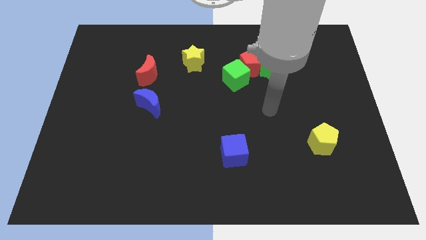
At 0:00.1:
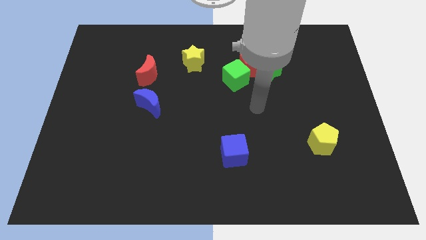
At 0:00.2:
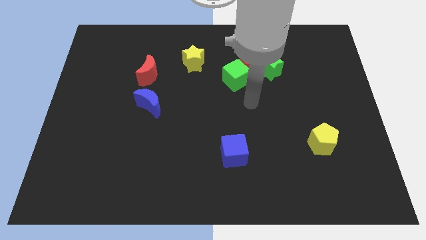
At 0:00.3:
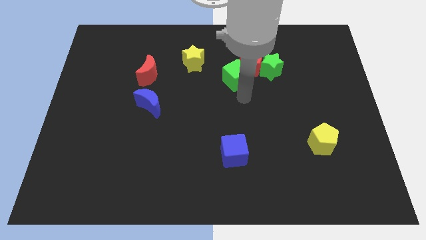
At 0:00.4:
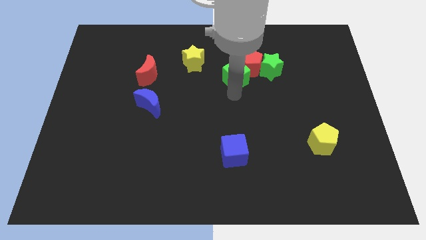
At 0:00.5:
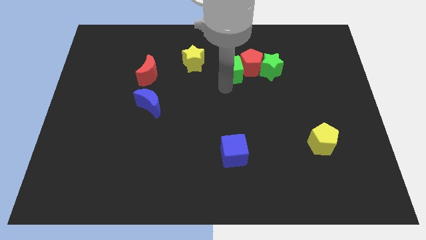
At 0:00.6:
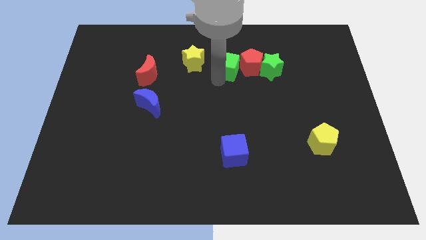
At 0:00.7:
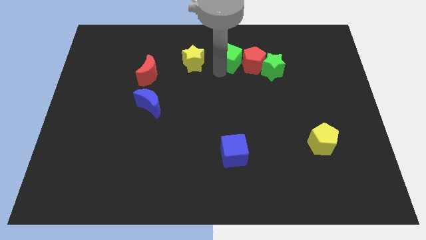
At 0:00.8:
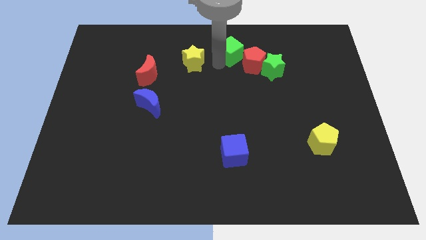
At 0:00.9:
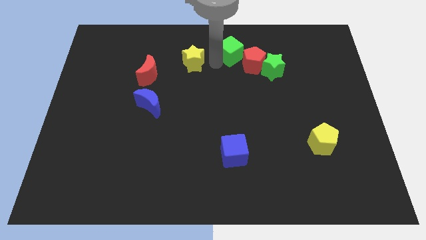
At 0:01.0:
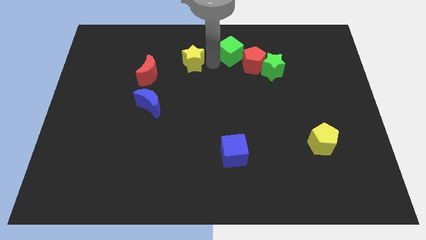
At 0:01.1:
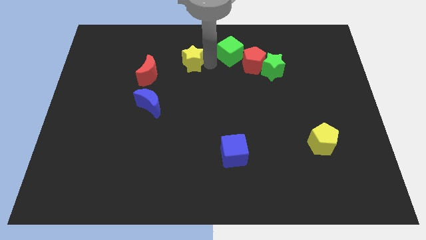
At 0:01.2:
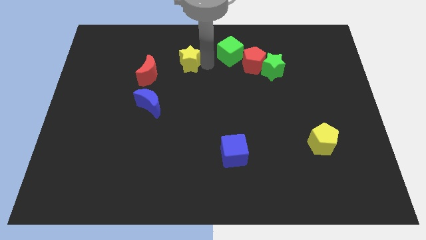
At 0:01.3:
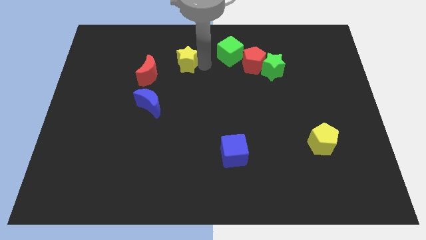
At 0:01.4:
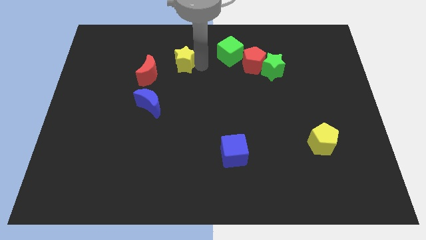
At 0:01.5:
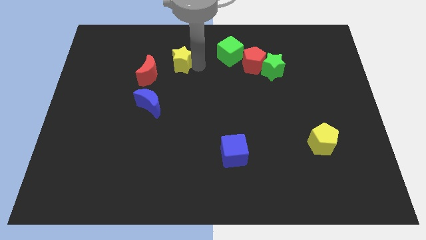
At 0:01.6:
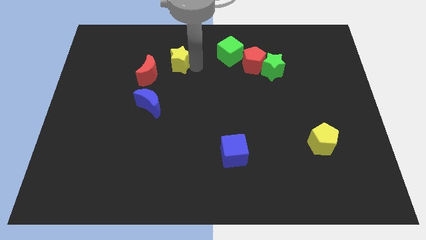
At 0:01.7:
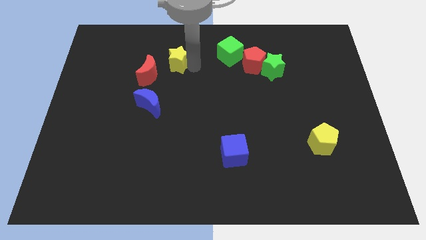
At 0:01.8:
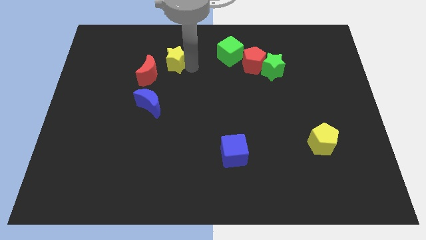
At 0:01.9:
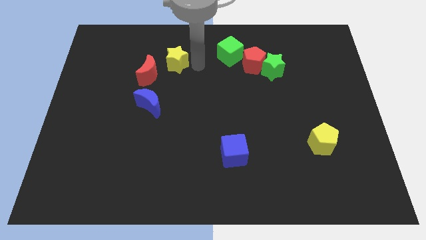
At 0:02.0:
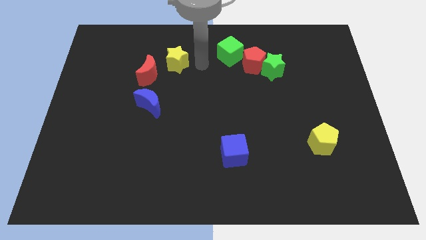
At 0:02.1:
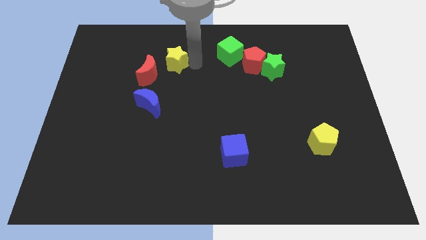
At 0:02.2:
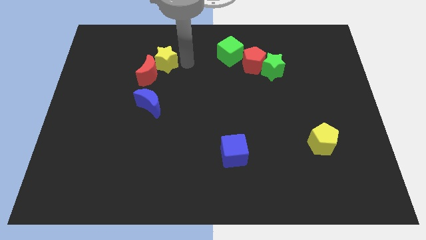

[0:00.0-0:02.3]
push the yellow star slightly left

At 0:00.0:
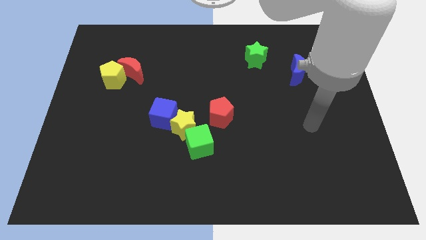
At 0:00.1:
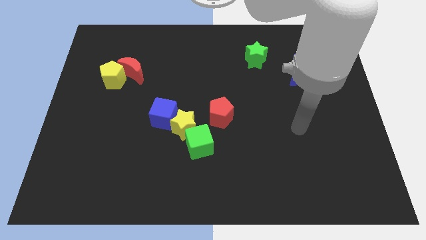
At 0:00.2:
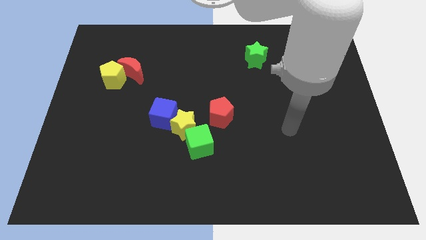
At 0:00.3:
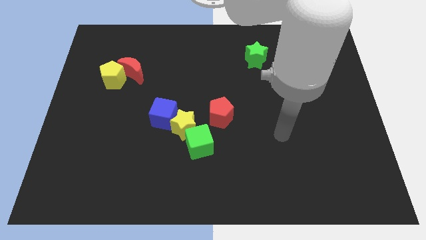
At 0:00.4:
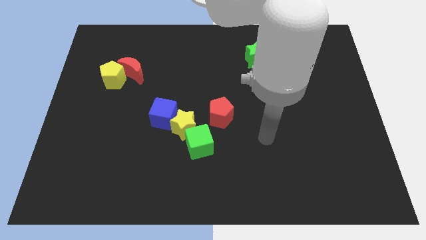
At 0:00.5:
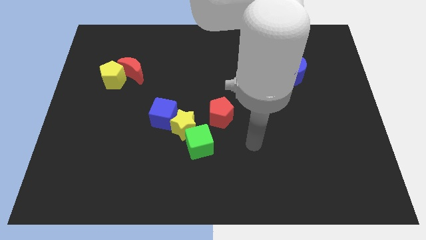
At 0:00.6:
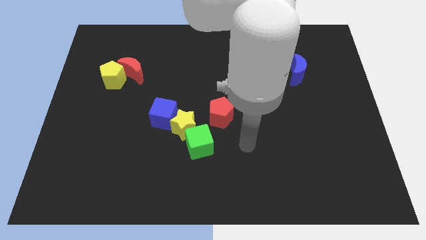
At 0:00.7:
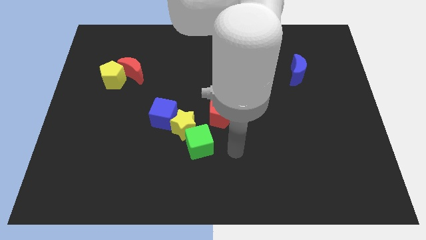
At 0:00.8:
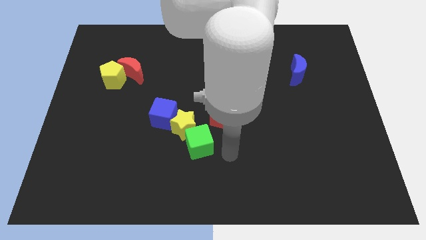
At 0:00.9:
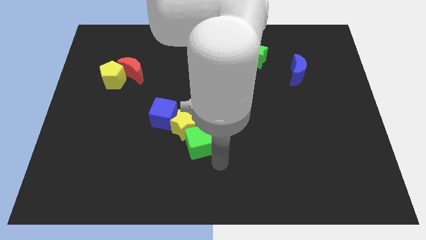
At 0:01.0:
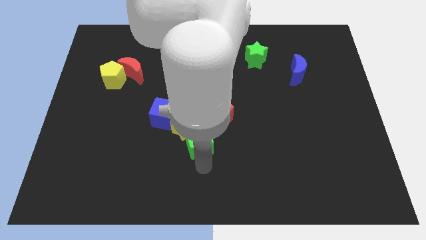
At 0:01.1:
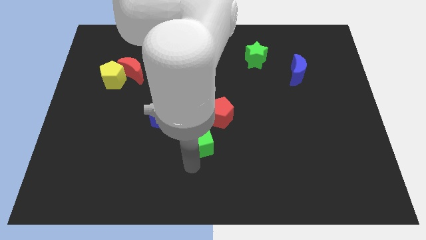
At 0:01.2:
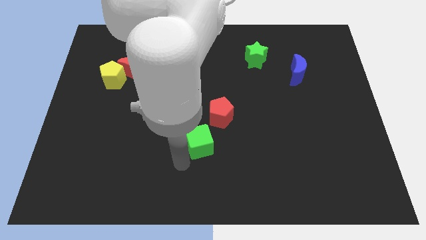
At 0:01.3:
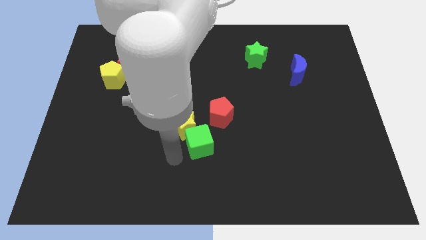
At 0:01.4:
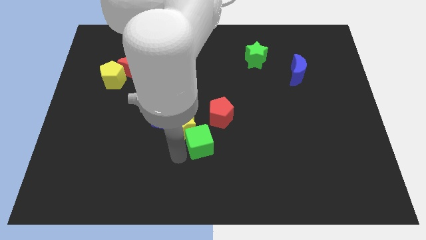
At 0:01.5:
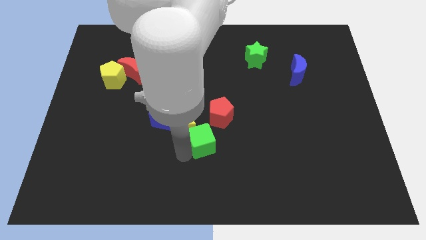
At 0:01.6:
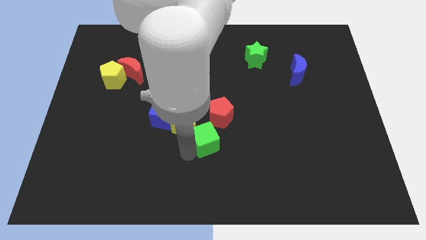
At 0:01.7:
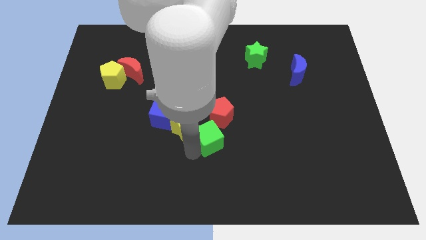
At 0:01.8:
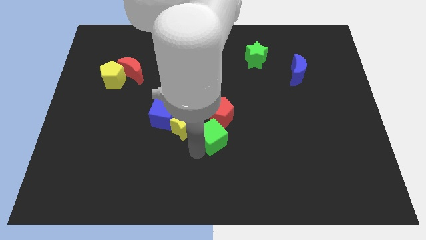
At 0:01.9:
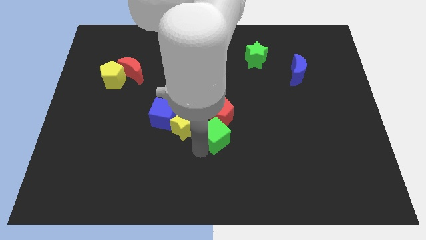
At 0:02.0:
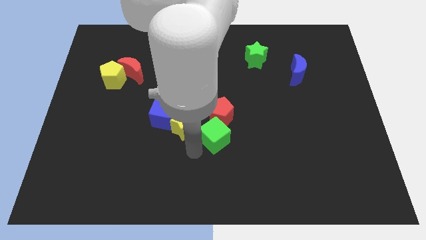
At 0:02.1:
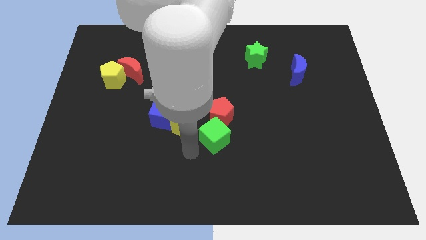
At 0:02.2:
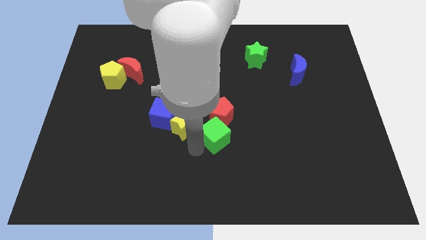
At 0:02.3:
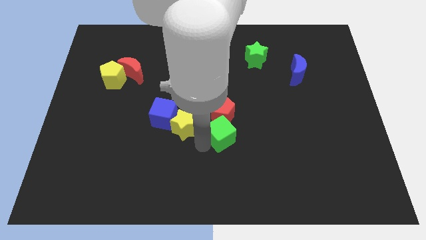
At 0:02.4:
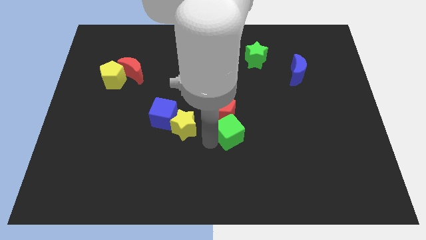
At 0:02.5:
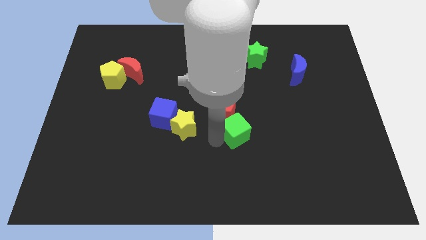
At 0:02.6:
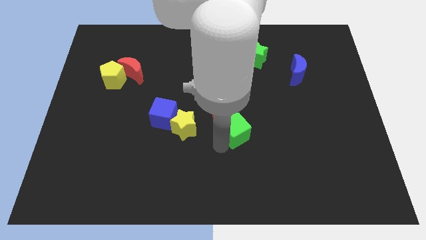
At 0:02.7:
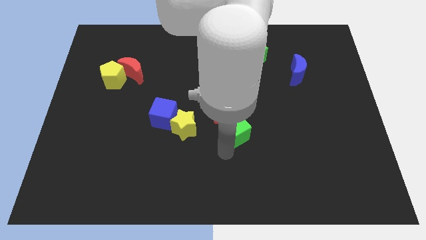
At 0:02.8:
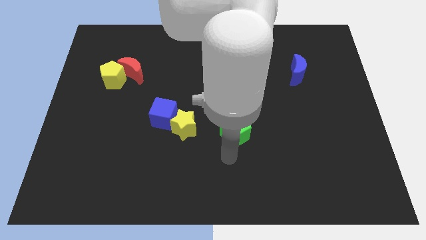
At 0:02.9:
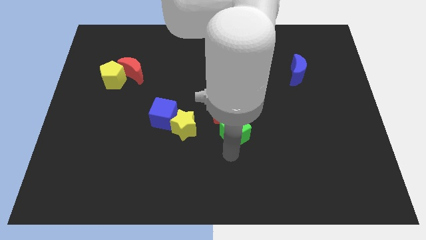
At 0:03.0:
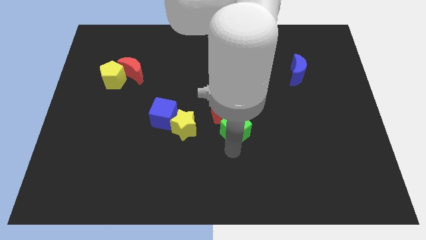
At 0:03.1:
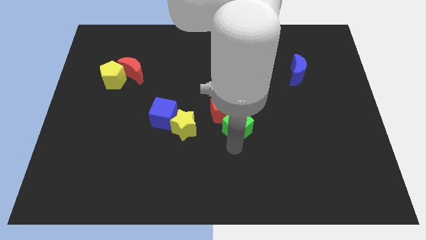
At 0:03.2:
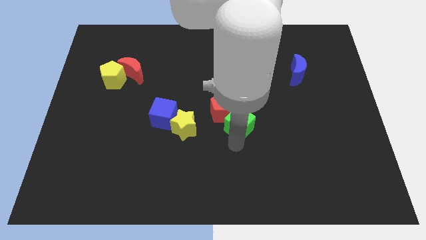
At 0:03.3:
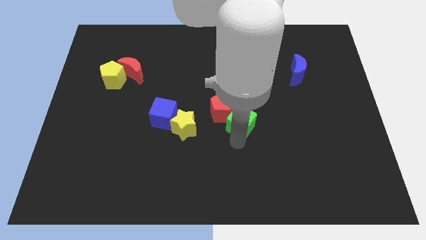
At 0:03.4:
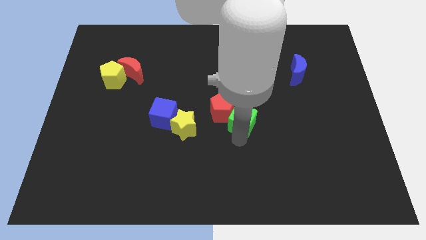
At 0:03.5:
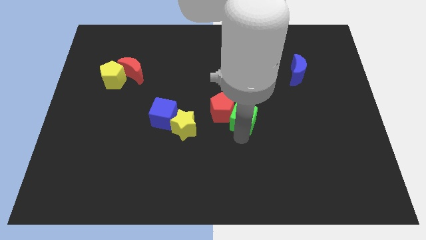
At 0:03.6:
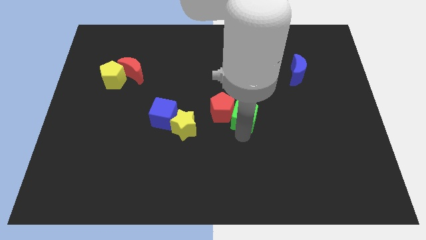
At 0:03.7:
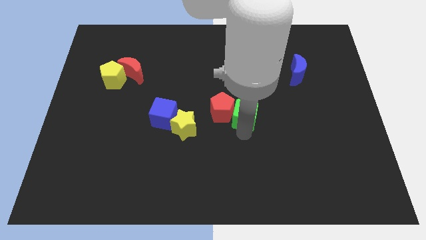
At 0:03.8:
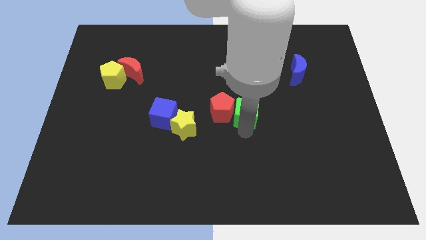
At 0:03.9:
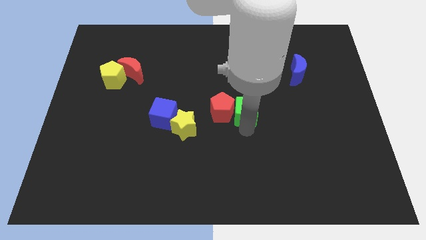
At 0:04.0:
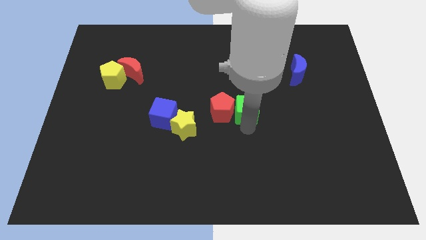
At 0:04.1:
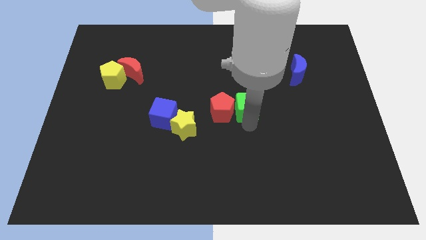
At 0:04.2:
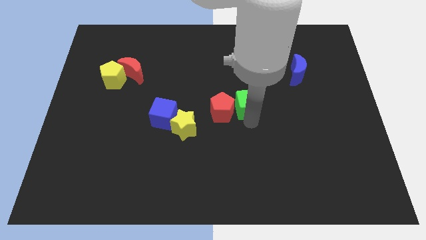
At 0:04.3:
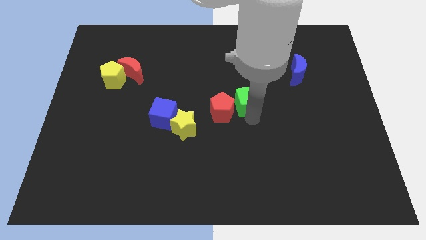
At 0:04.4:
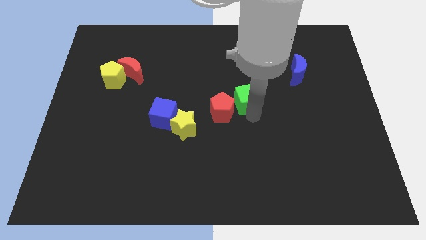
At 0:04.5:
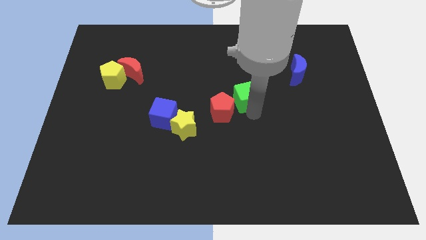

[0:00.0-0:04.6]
push the green cube upwards a little bit

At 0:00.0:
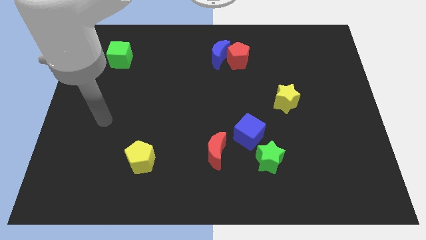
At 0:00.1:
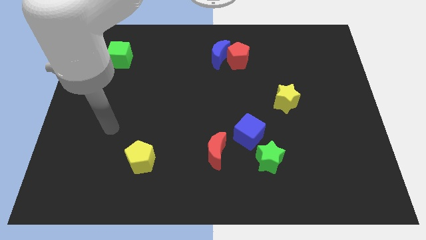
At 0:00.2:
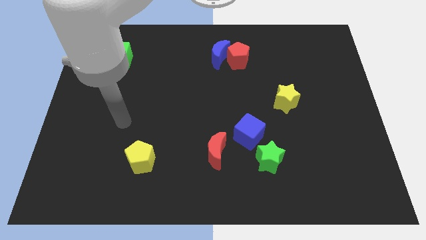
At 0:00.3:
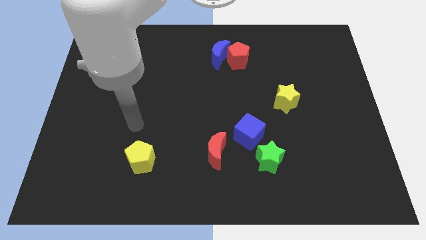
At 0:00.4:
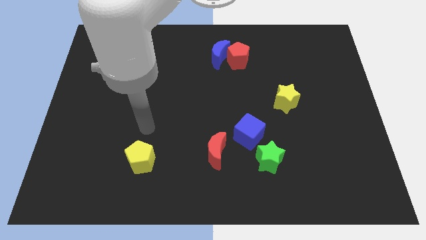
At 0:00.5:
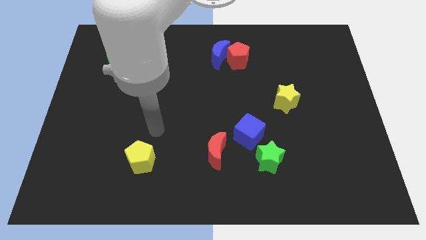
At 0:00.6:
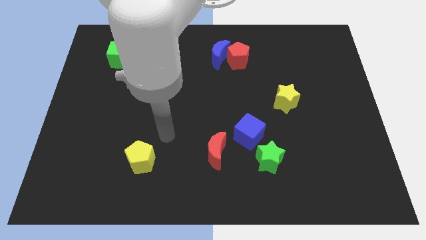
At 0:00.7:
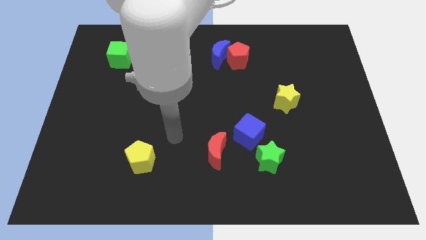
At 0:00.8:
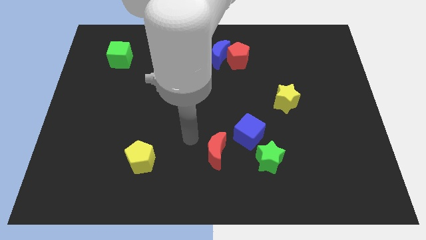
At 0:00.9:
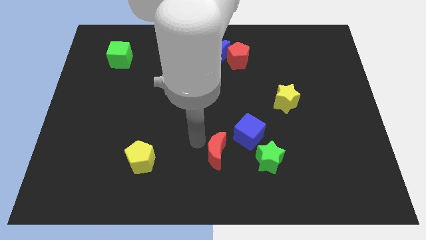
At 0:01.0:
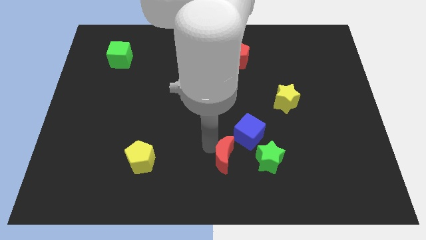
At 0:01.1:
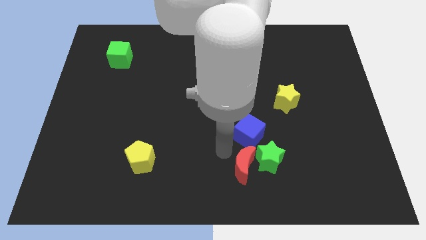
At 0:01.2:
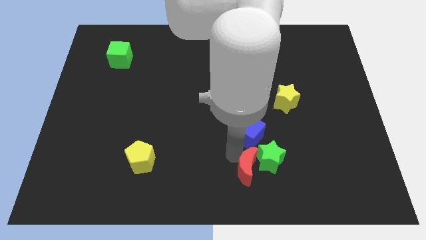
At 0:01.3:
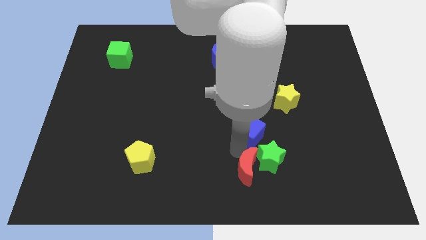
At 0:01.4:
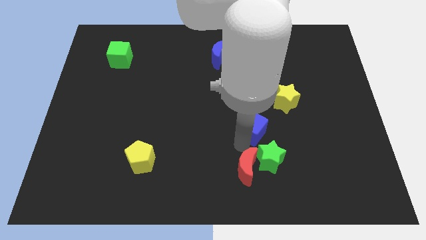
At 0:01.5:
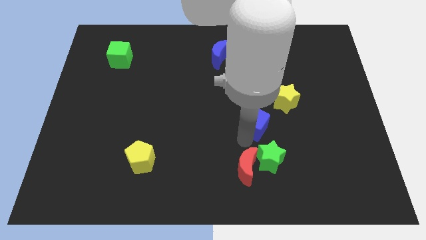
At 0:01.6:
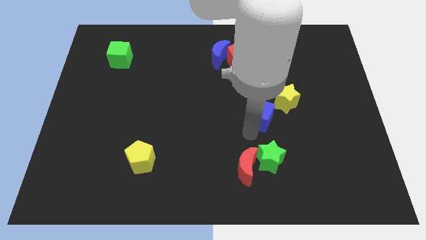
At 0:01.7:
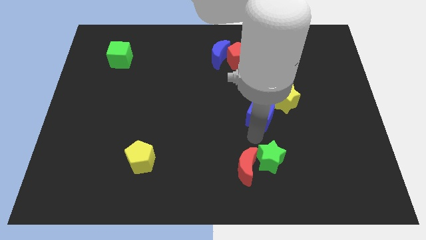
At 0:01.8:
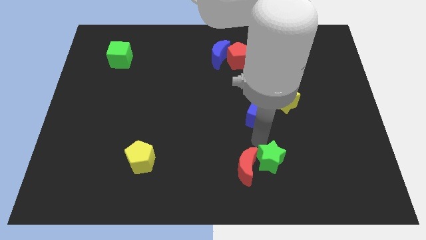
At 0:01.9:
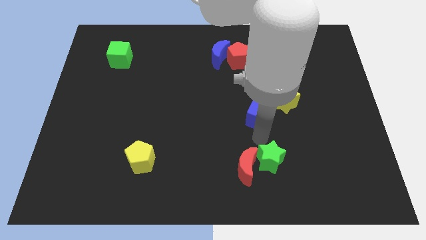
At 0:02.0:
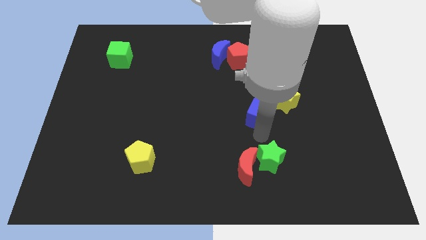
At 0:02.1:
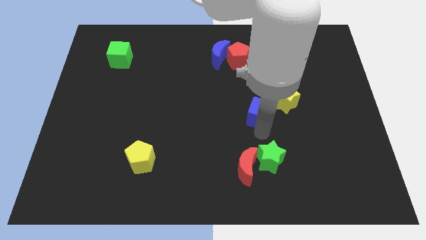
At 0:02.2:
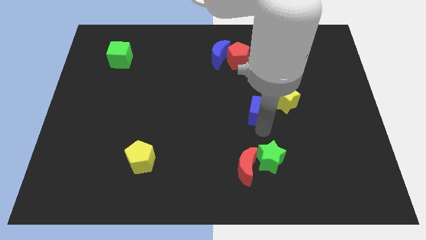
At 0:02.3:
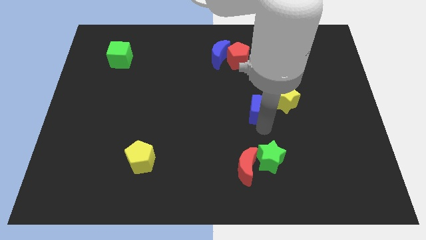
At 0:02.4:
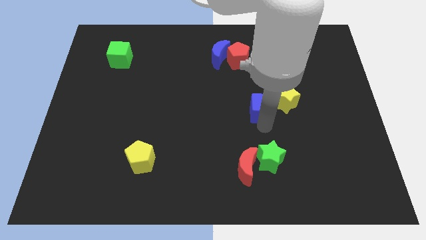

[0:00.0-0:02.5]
slightly slide the blue cube upwards and to the right
